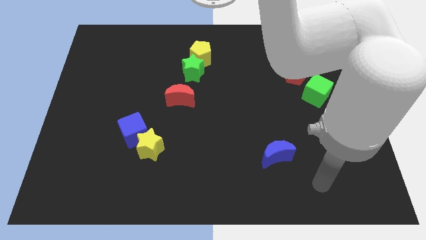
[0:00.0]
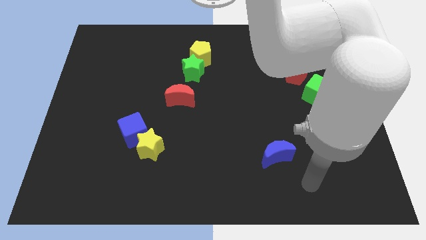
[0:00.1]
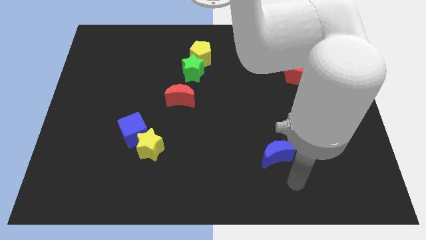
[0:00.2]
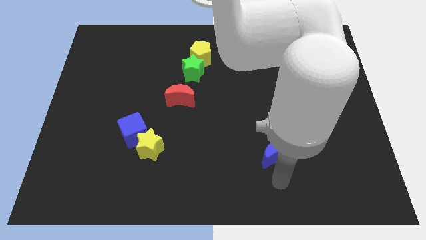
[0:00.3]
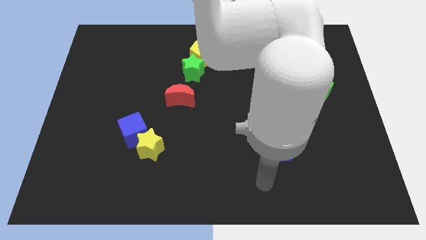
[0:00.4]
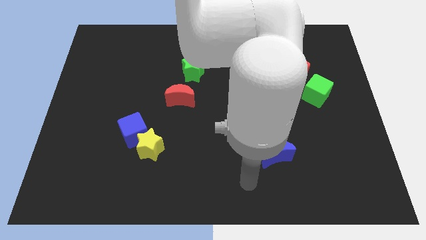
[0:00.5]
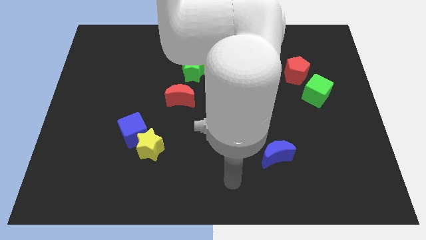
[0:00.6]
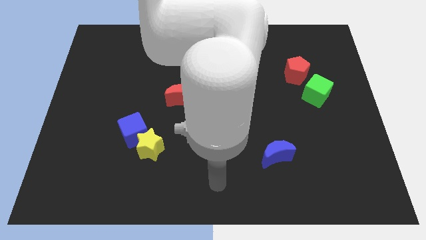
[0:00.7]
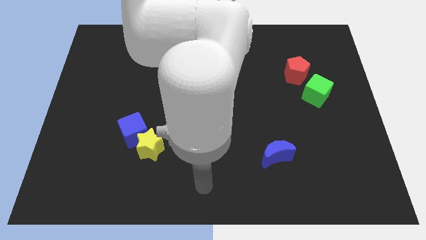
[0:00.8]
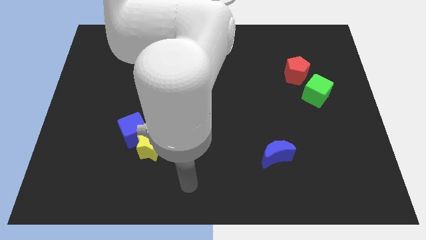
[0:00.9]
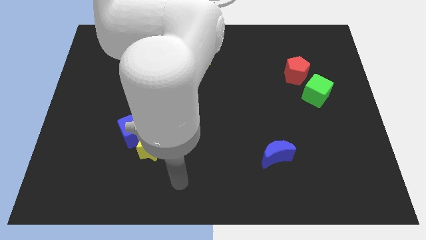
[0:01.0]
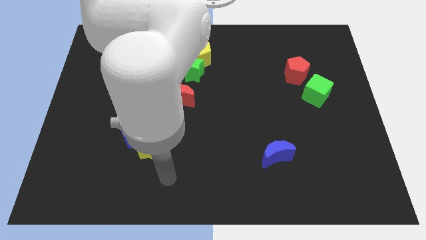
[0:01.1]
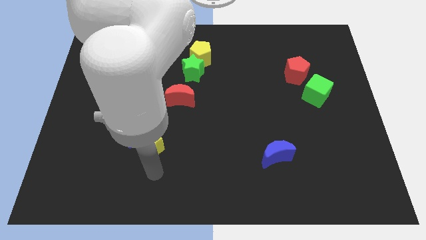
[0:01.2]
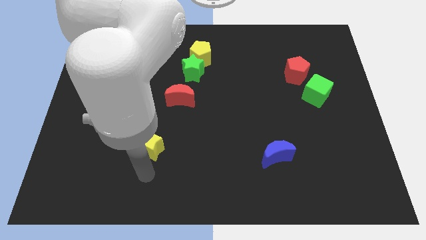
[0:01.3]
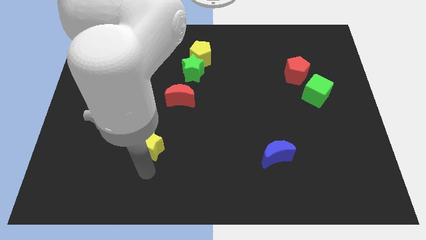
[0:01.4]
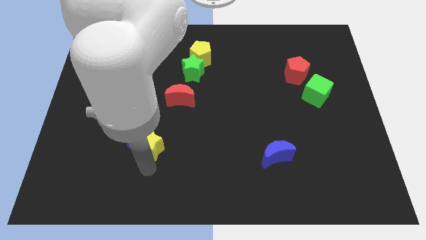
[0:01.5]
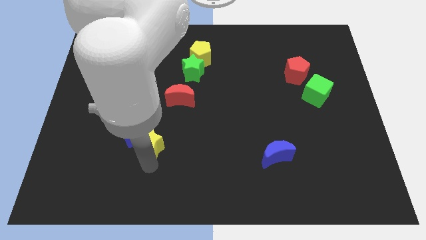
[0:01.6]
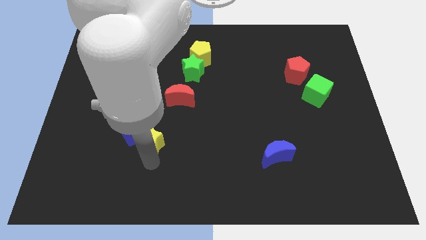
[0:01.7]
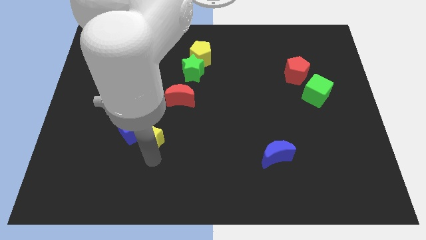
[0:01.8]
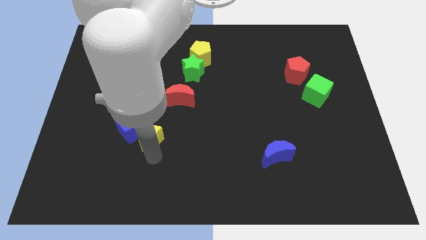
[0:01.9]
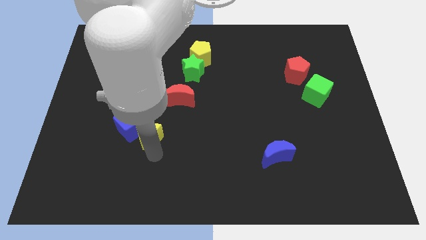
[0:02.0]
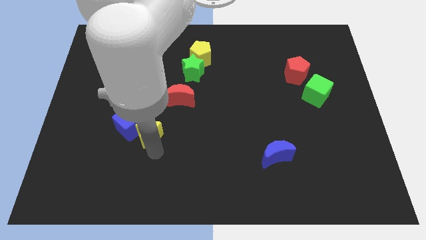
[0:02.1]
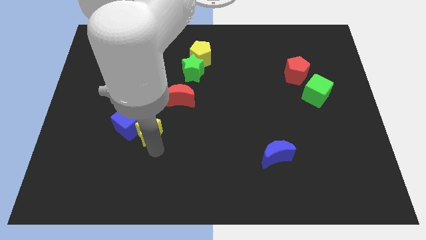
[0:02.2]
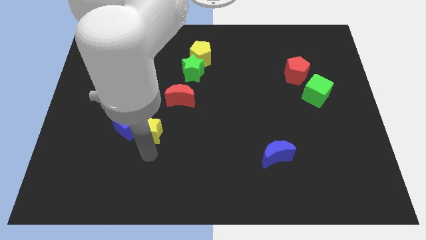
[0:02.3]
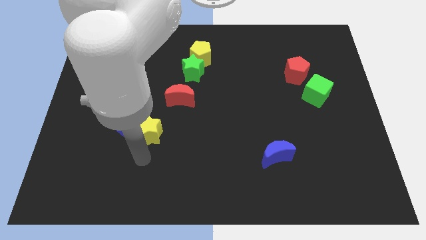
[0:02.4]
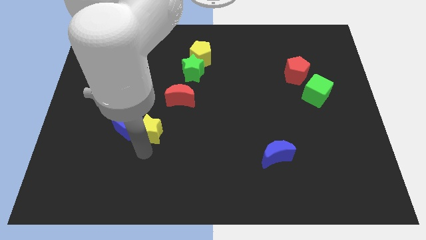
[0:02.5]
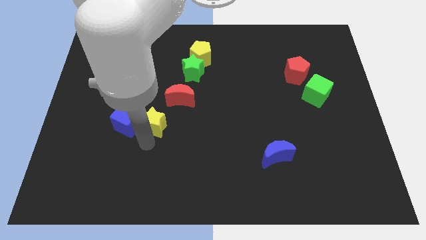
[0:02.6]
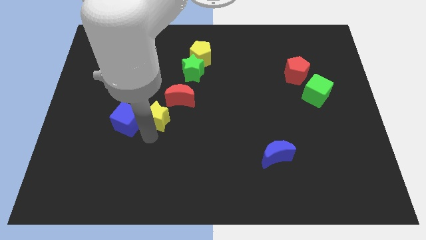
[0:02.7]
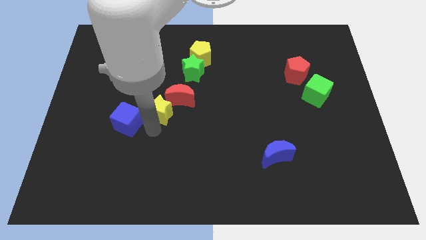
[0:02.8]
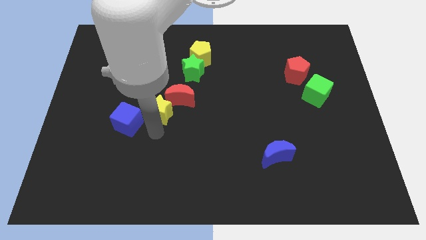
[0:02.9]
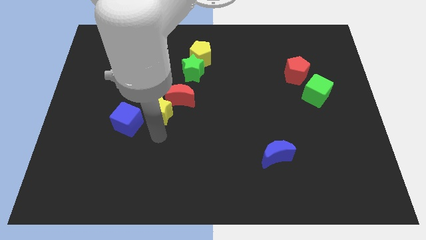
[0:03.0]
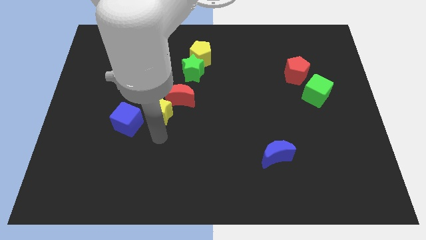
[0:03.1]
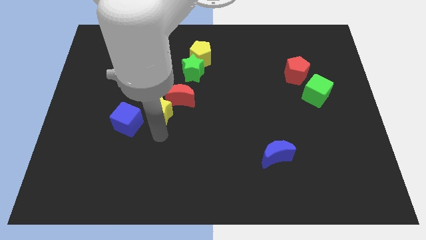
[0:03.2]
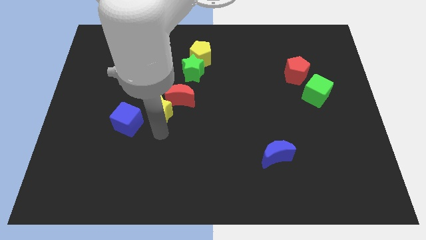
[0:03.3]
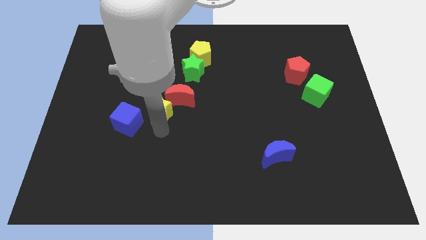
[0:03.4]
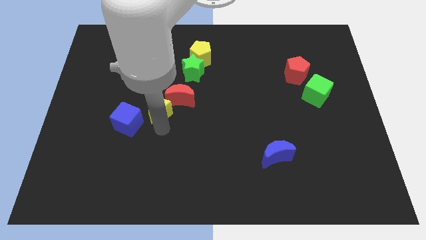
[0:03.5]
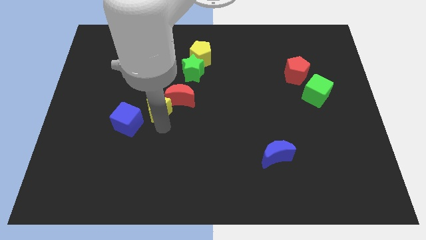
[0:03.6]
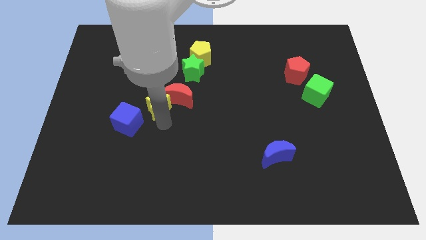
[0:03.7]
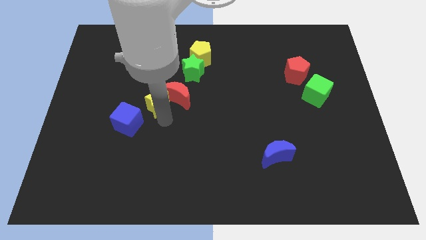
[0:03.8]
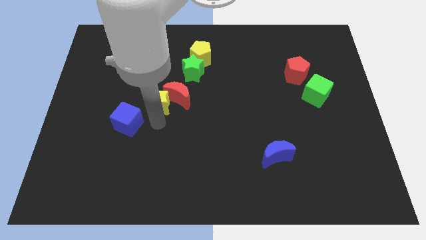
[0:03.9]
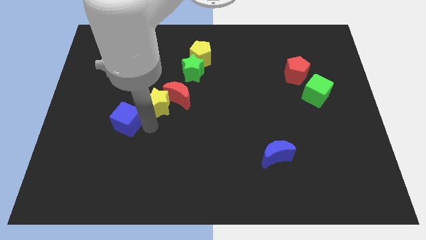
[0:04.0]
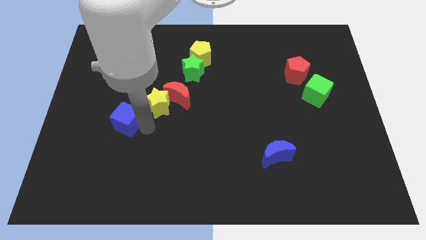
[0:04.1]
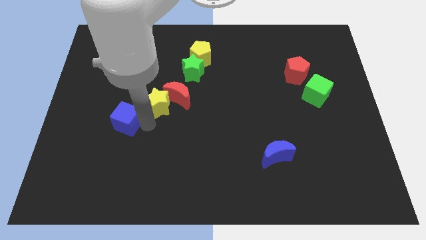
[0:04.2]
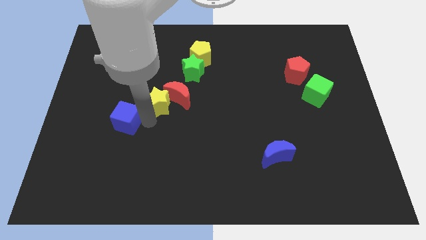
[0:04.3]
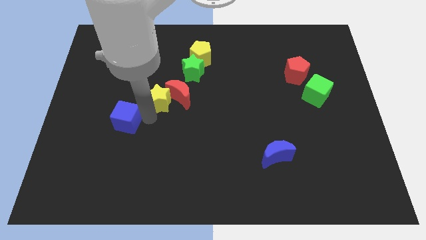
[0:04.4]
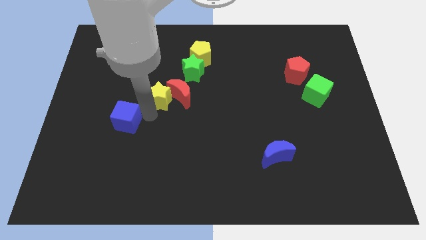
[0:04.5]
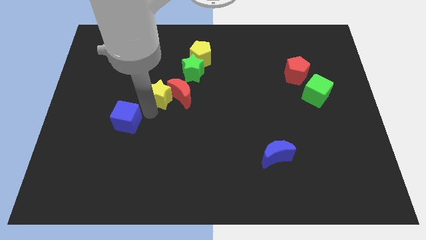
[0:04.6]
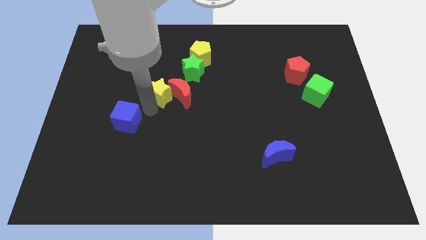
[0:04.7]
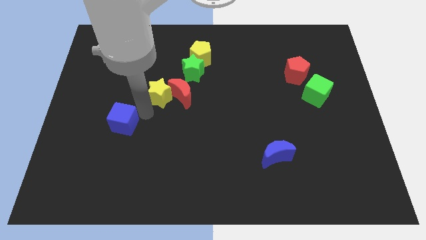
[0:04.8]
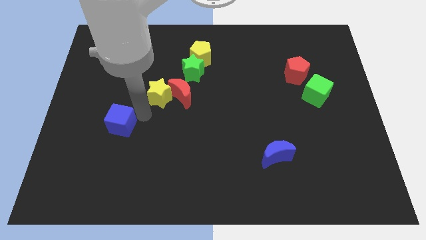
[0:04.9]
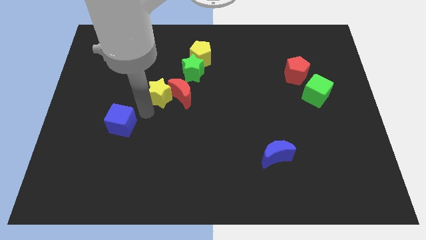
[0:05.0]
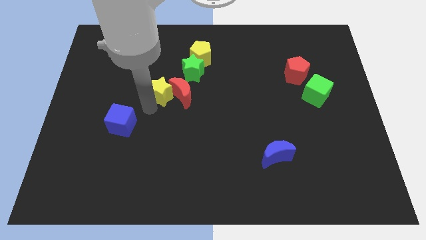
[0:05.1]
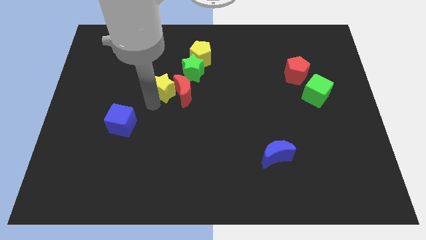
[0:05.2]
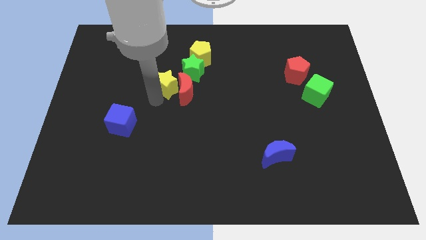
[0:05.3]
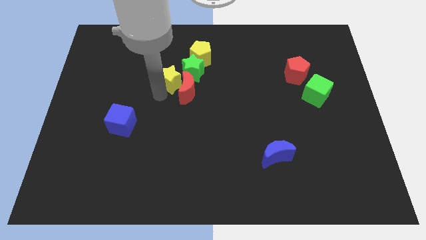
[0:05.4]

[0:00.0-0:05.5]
move the yellow star to the bottom left of the yellow pentagon

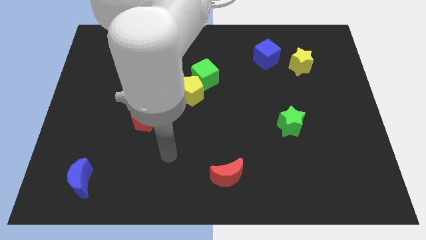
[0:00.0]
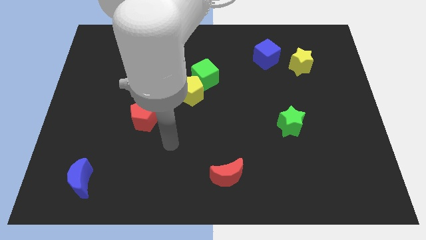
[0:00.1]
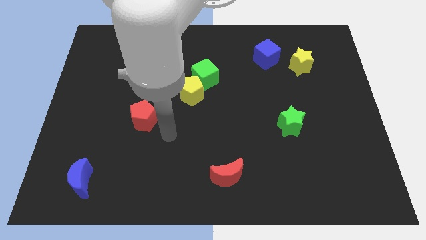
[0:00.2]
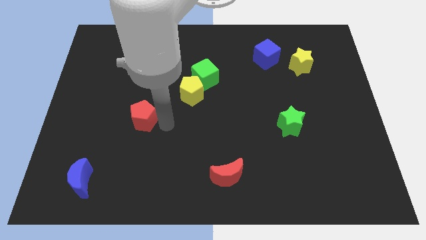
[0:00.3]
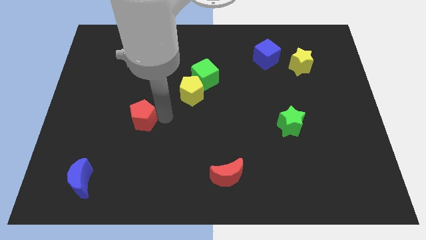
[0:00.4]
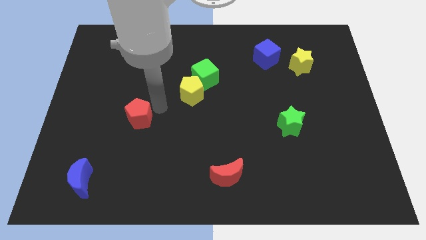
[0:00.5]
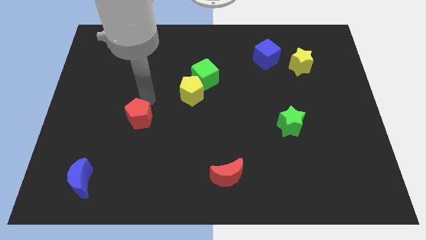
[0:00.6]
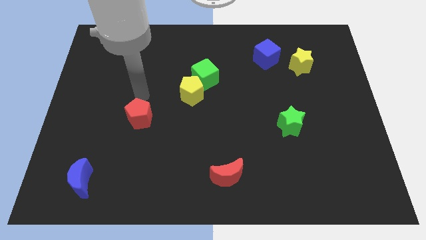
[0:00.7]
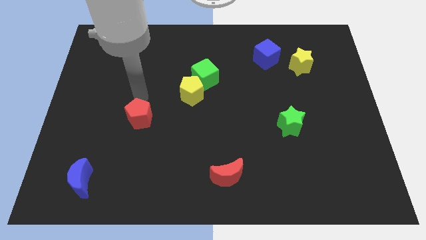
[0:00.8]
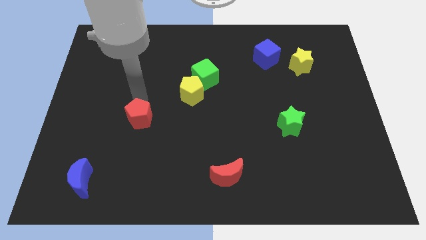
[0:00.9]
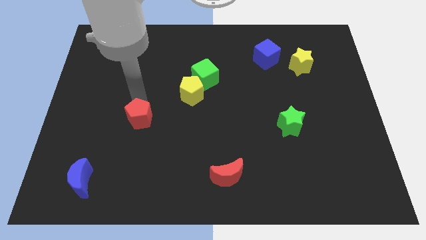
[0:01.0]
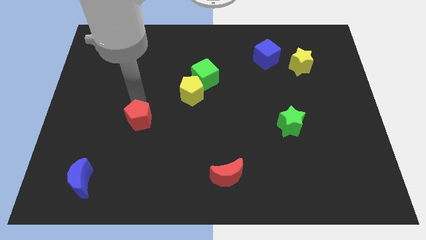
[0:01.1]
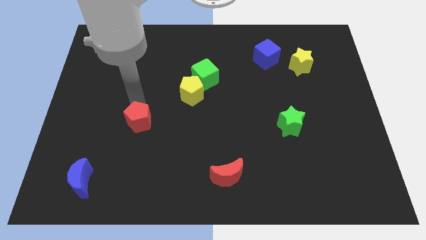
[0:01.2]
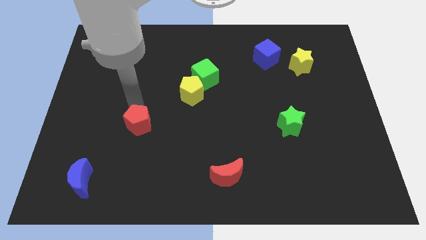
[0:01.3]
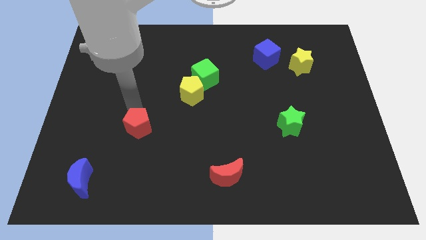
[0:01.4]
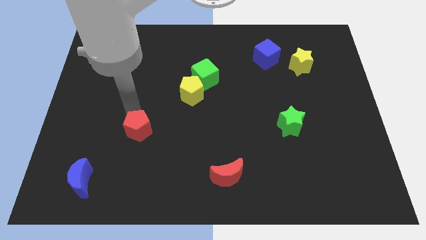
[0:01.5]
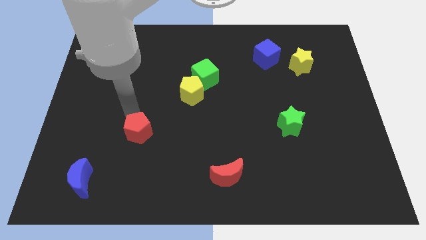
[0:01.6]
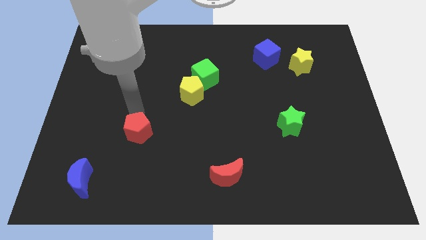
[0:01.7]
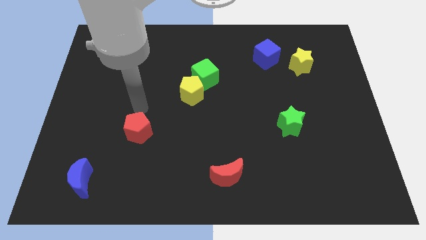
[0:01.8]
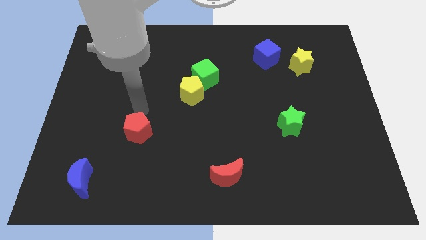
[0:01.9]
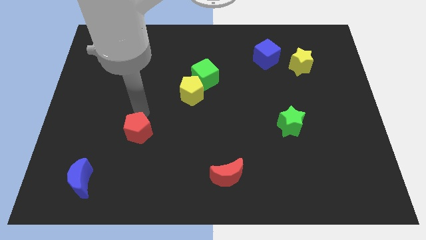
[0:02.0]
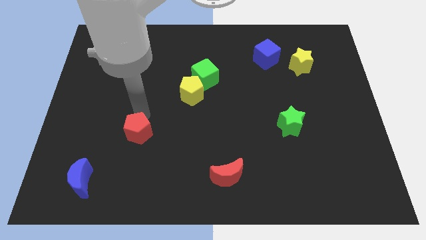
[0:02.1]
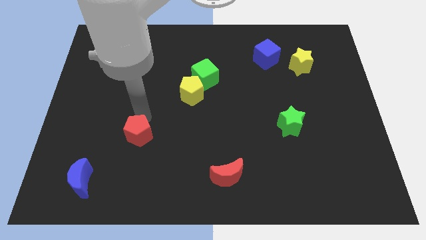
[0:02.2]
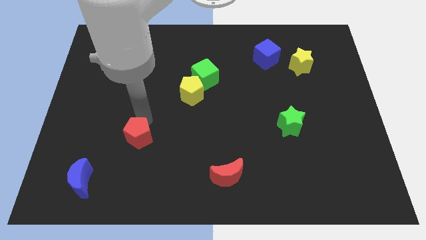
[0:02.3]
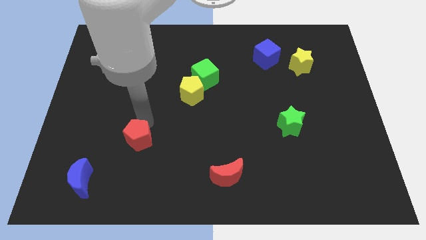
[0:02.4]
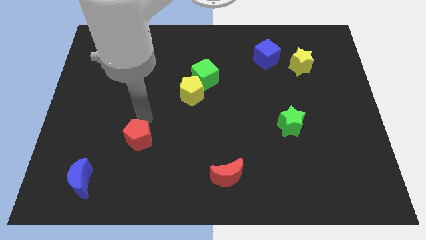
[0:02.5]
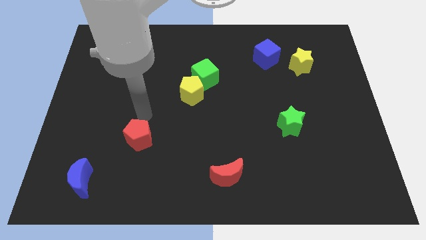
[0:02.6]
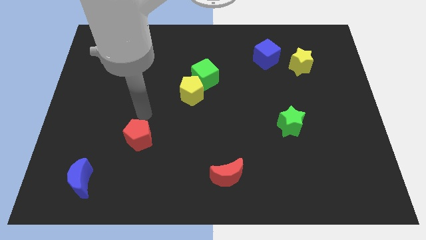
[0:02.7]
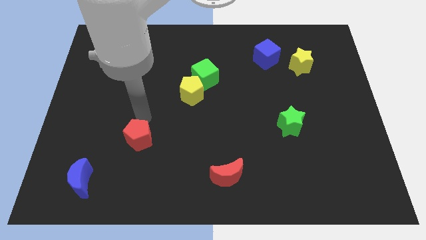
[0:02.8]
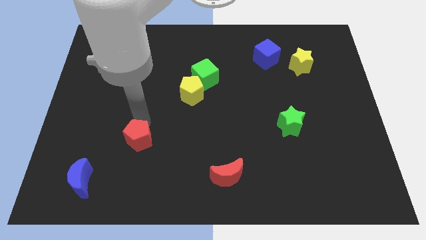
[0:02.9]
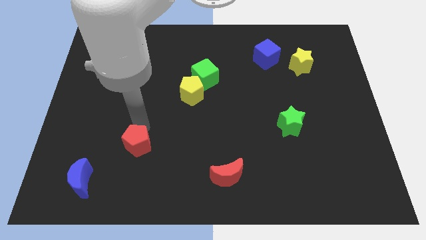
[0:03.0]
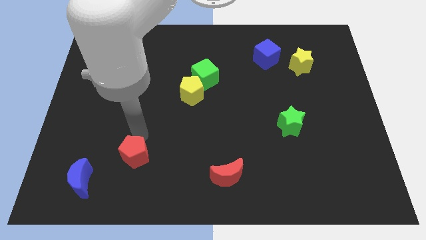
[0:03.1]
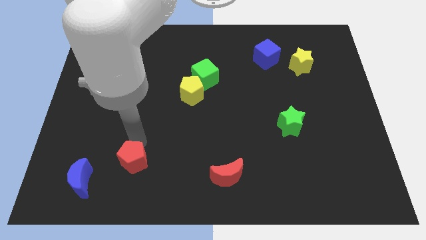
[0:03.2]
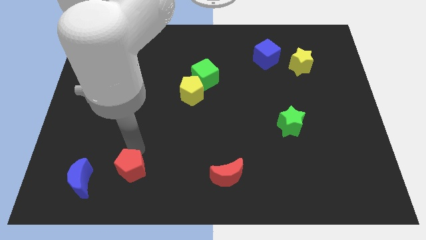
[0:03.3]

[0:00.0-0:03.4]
push the red pentagon to the right side of the blue moon
